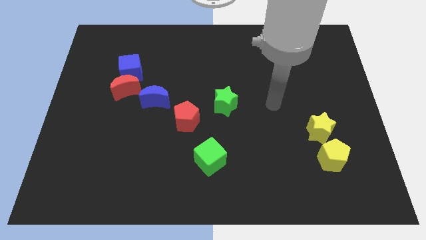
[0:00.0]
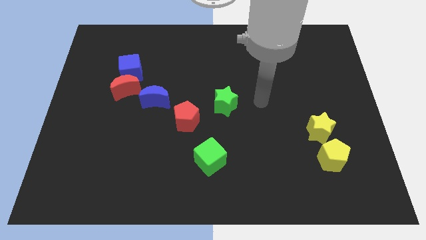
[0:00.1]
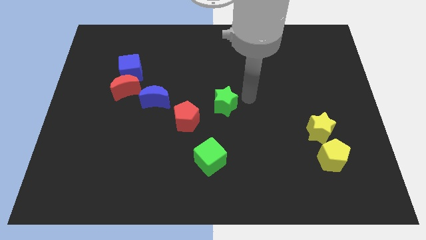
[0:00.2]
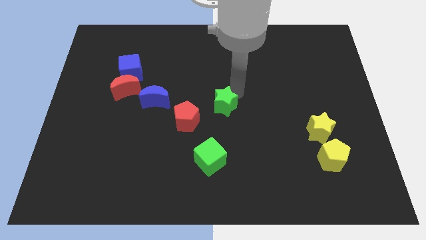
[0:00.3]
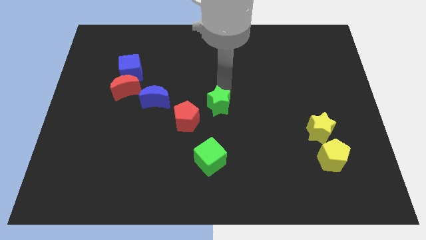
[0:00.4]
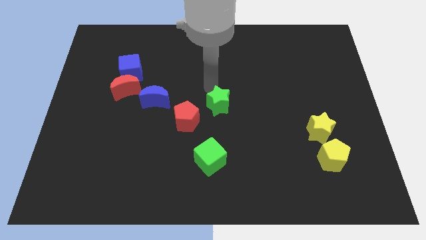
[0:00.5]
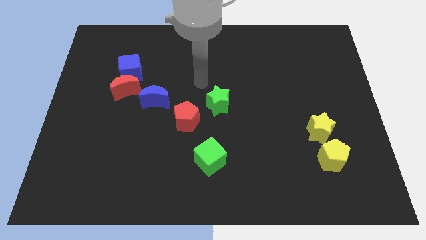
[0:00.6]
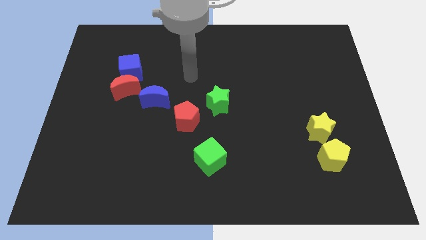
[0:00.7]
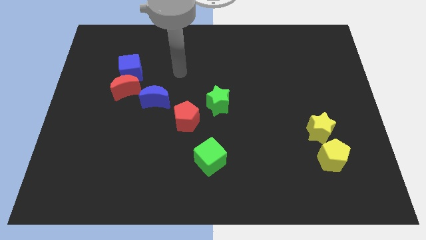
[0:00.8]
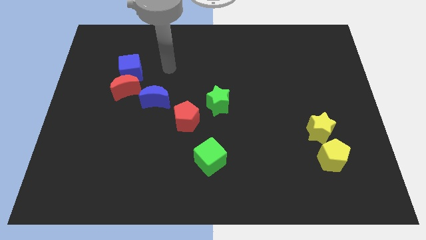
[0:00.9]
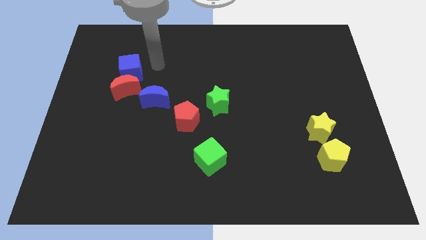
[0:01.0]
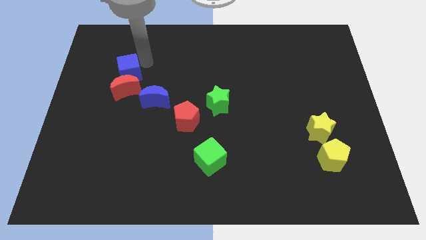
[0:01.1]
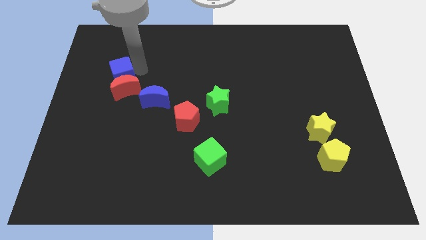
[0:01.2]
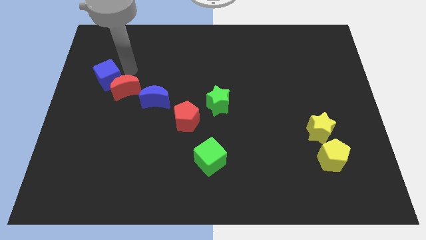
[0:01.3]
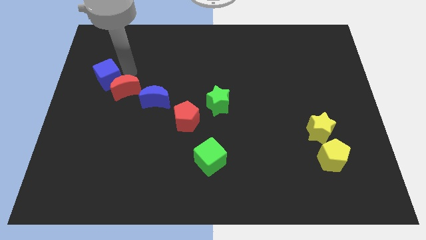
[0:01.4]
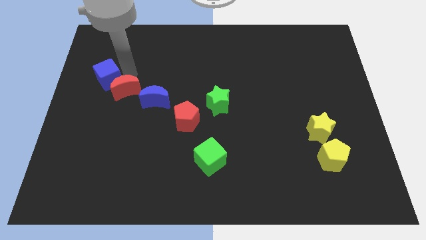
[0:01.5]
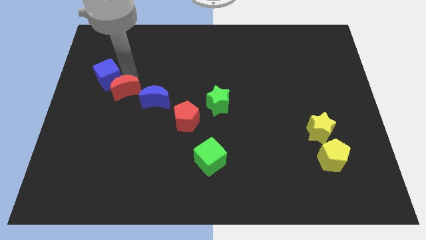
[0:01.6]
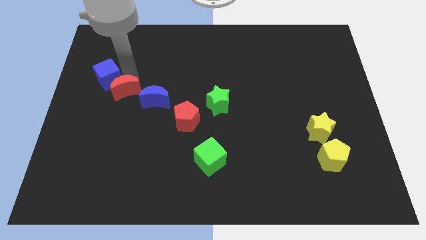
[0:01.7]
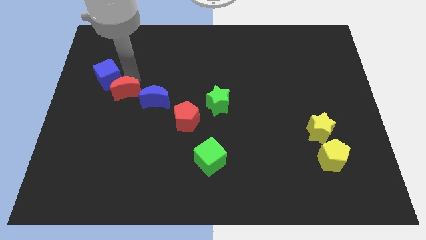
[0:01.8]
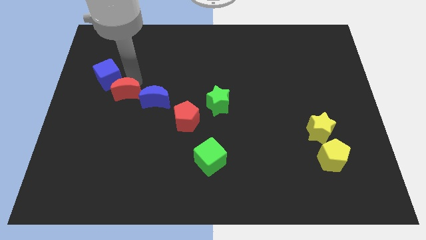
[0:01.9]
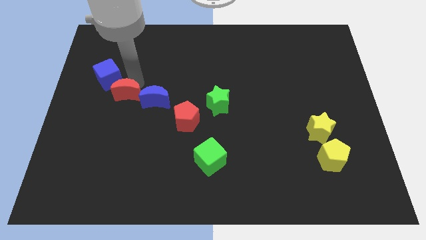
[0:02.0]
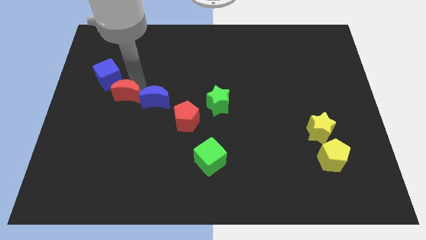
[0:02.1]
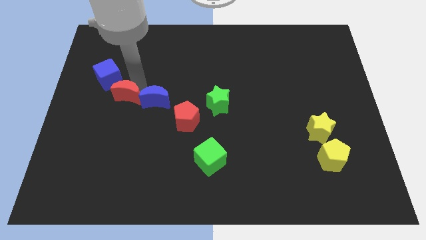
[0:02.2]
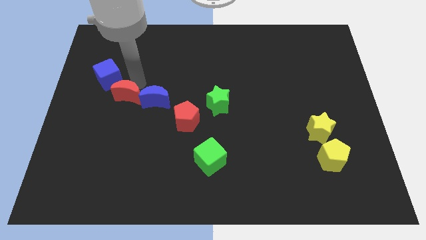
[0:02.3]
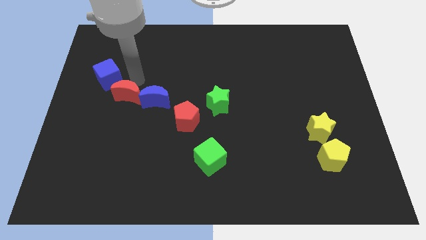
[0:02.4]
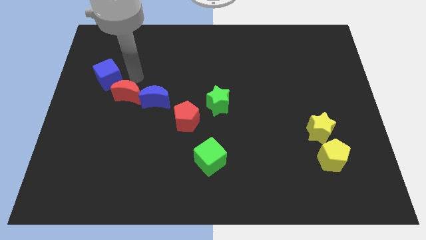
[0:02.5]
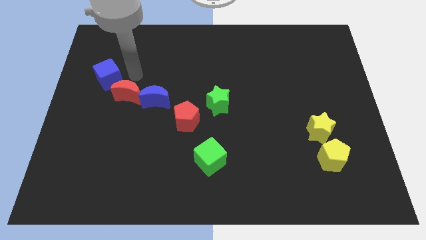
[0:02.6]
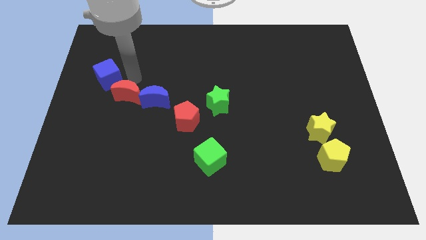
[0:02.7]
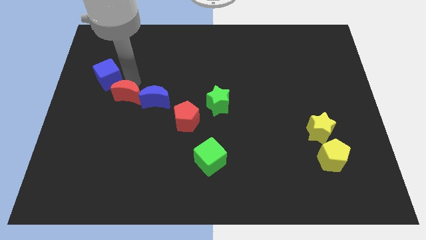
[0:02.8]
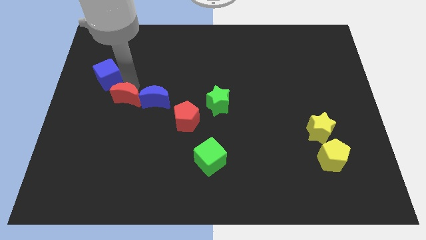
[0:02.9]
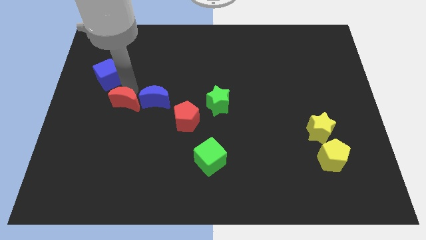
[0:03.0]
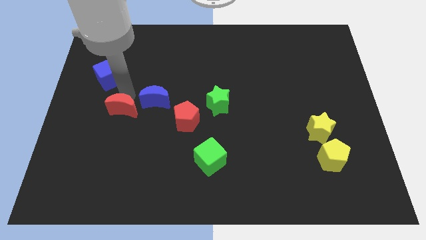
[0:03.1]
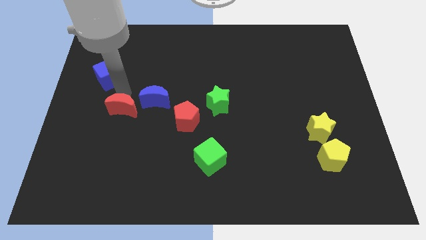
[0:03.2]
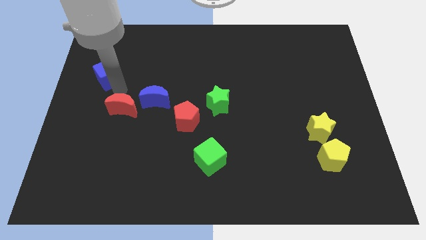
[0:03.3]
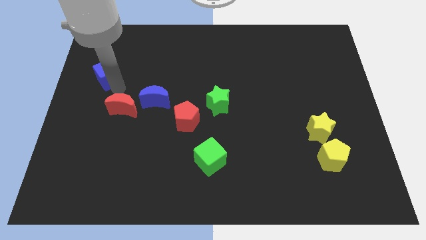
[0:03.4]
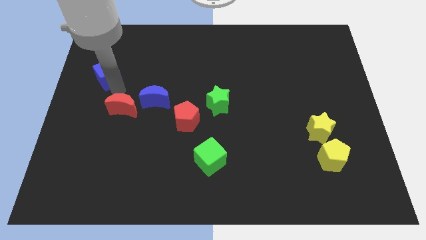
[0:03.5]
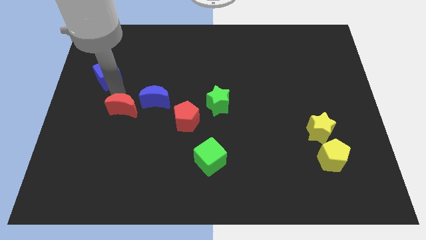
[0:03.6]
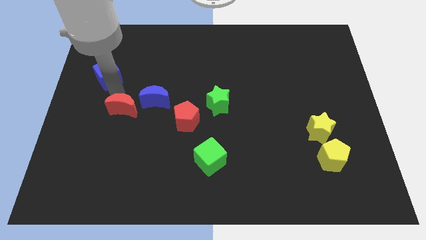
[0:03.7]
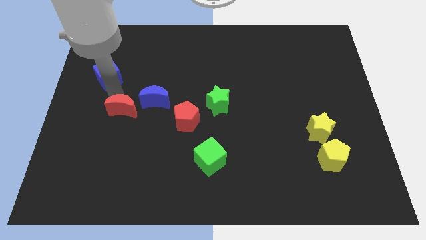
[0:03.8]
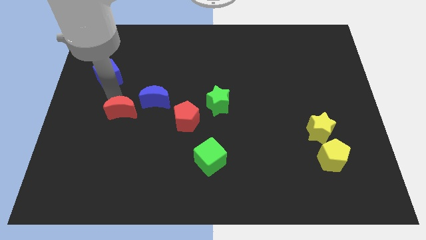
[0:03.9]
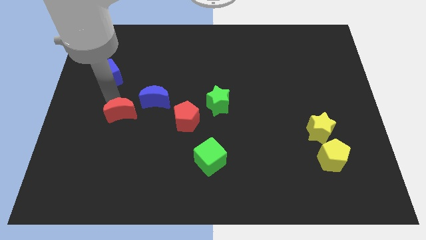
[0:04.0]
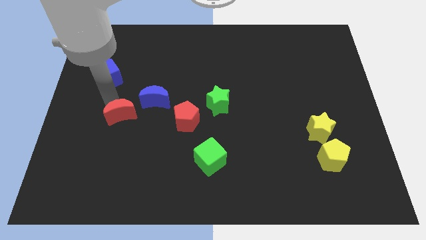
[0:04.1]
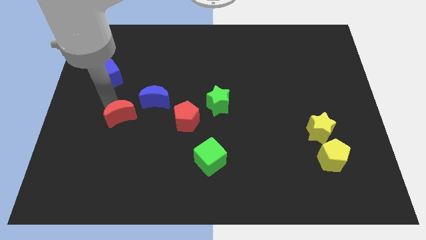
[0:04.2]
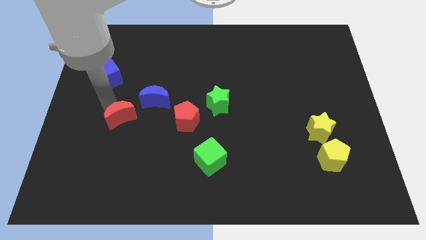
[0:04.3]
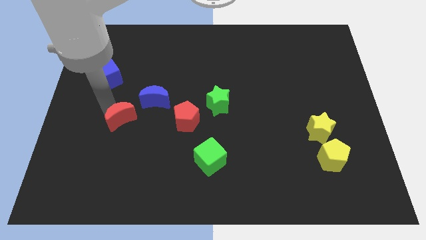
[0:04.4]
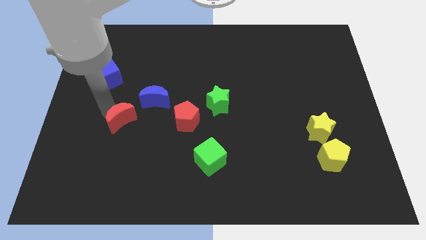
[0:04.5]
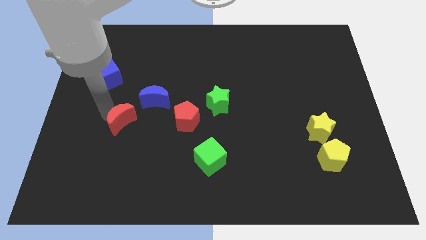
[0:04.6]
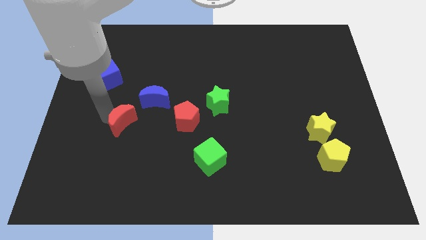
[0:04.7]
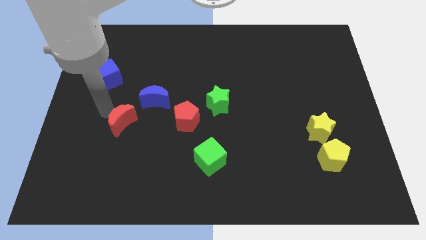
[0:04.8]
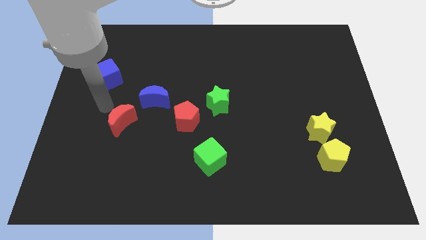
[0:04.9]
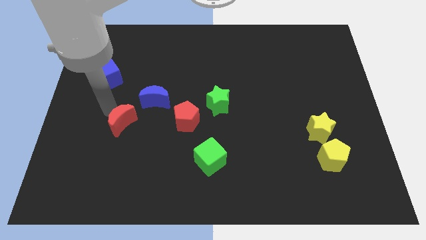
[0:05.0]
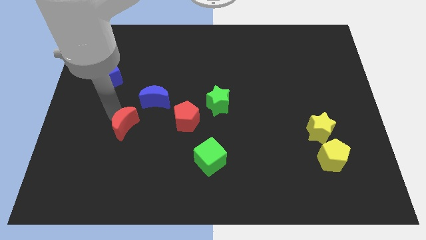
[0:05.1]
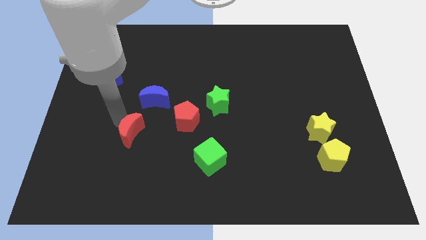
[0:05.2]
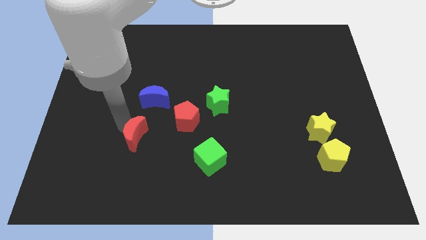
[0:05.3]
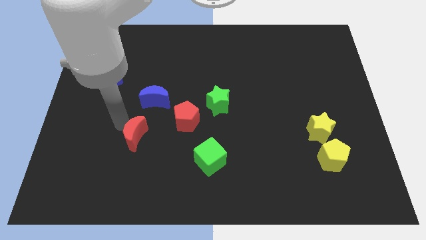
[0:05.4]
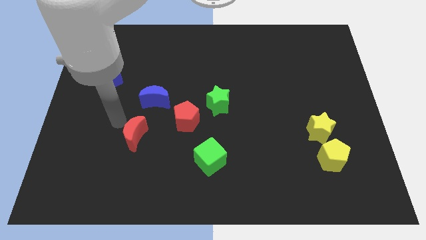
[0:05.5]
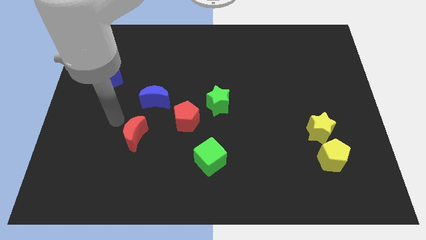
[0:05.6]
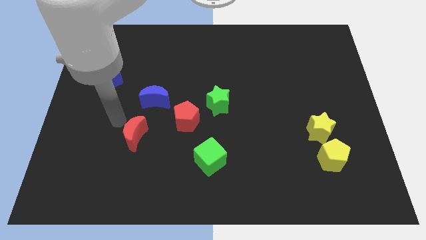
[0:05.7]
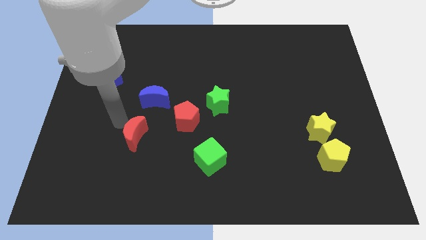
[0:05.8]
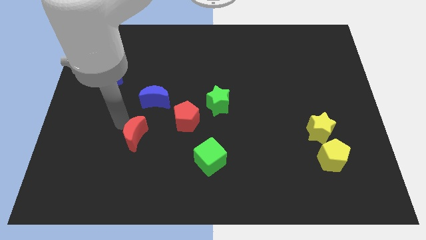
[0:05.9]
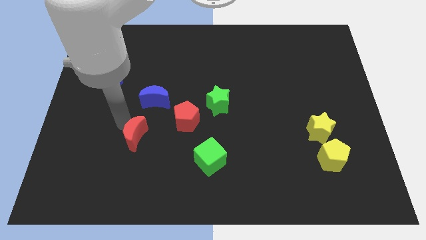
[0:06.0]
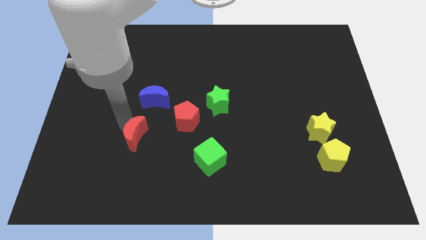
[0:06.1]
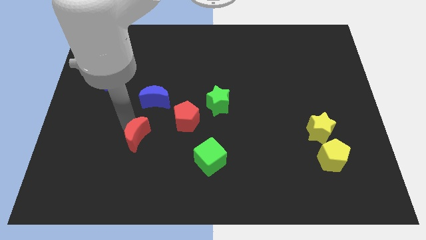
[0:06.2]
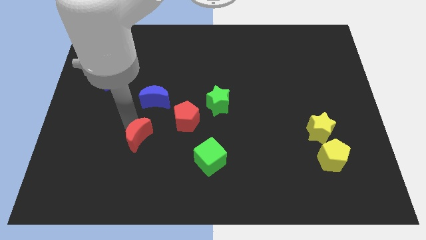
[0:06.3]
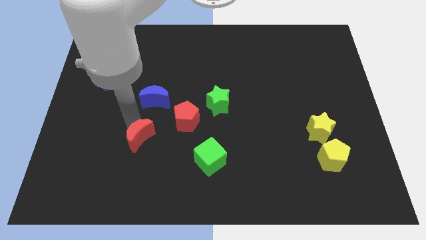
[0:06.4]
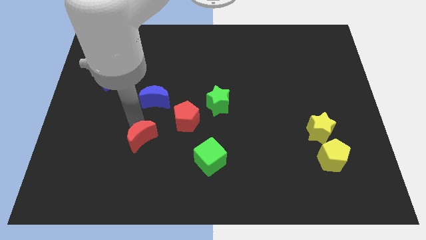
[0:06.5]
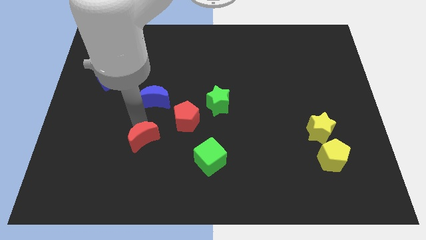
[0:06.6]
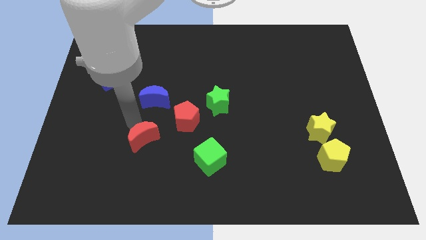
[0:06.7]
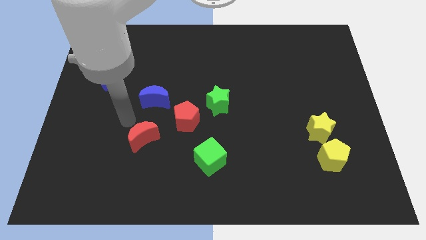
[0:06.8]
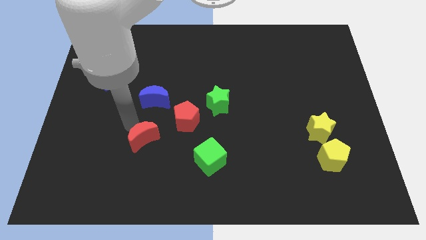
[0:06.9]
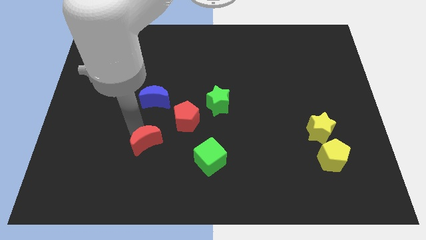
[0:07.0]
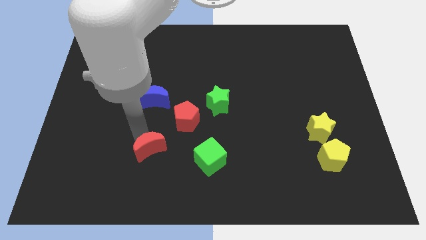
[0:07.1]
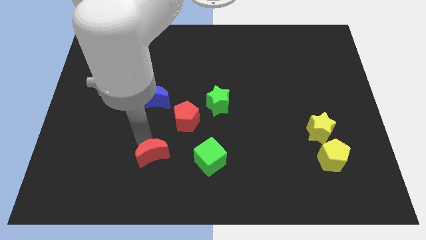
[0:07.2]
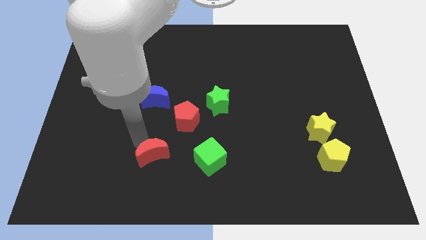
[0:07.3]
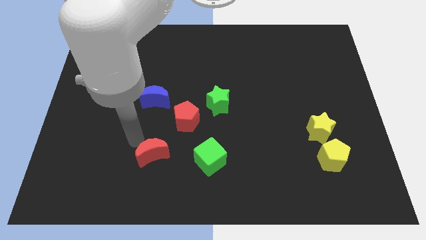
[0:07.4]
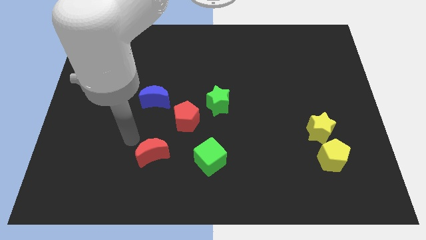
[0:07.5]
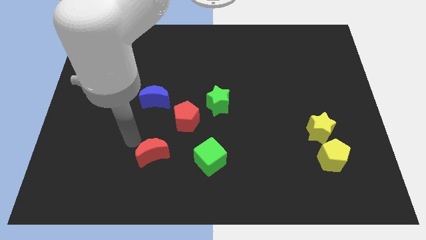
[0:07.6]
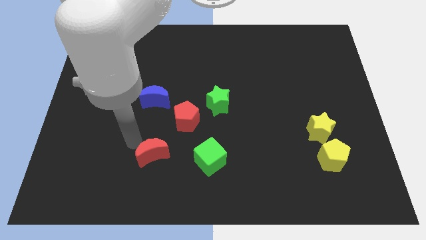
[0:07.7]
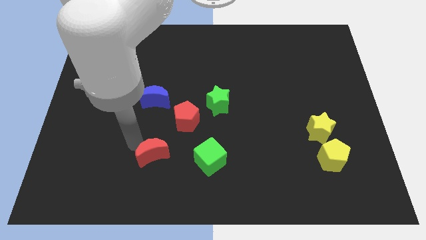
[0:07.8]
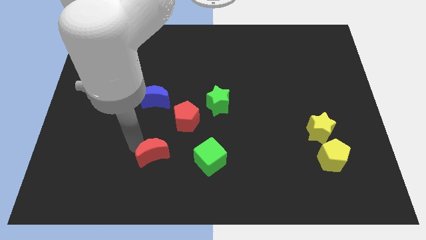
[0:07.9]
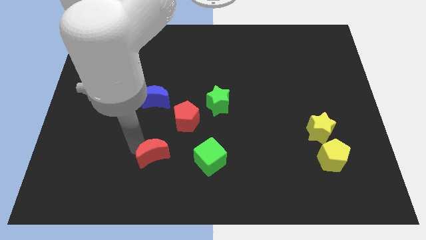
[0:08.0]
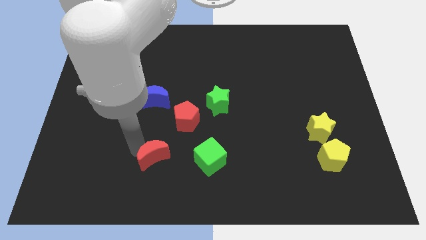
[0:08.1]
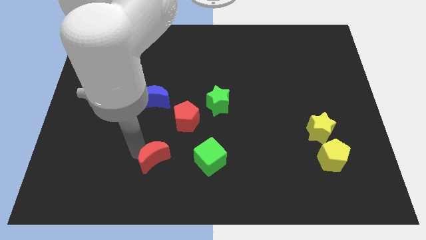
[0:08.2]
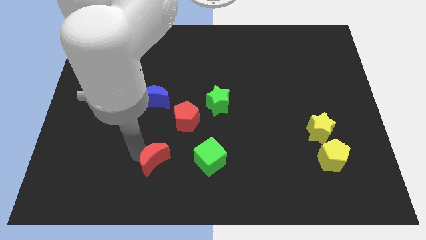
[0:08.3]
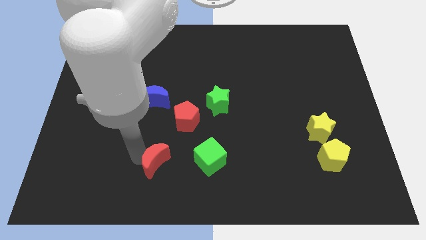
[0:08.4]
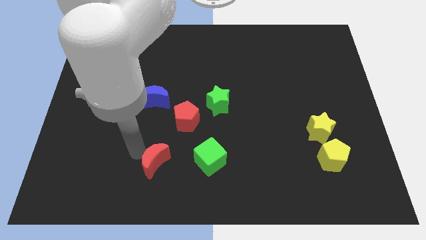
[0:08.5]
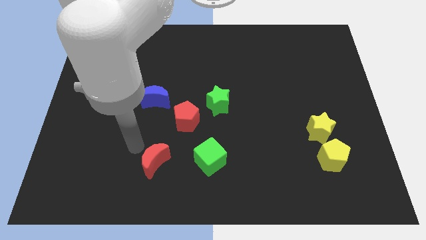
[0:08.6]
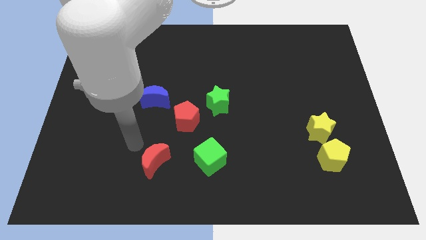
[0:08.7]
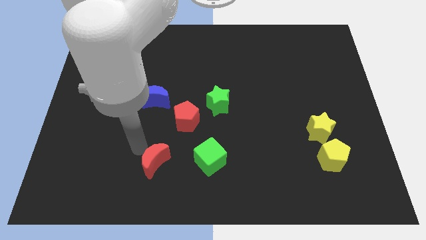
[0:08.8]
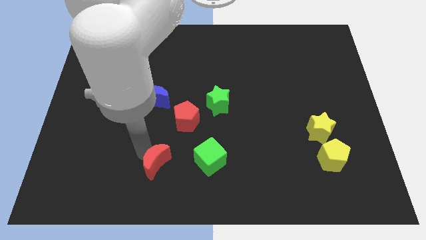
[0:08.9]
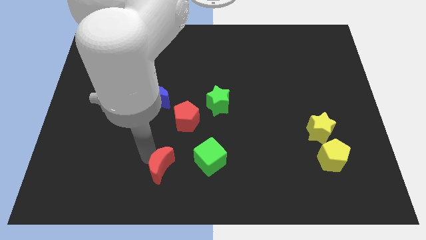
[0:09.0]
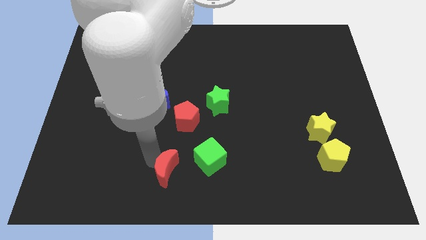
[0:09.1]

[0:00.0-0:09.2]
push the red moon to the bottom
